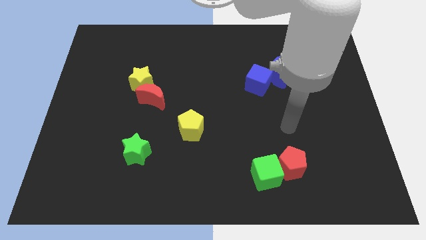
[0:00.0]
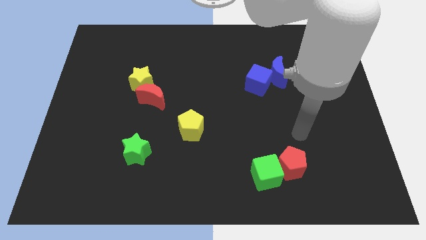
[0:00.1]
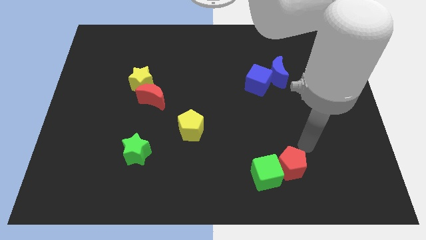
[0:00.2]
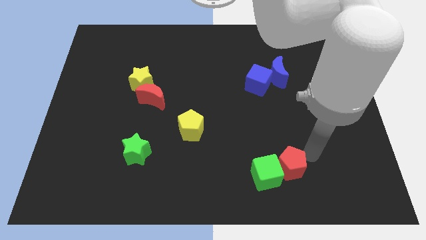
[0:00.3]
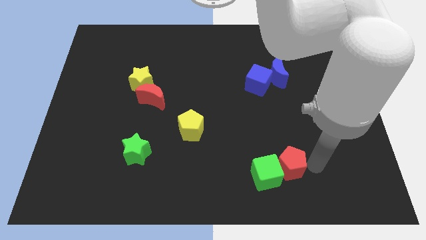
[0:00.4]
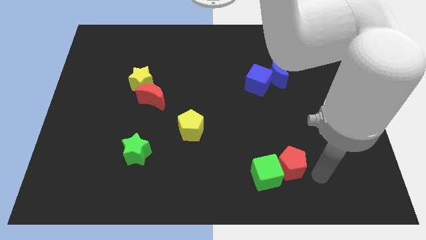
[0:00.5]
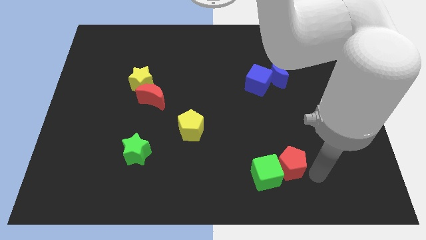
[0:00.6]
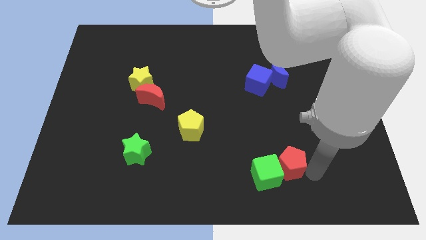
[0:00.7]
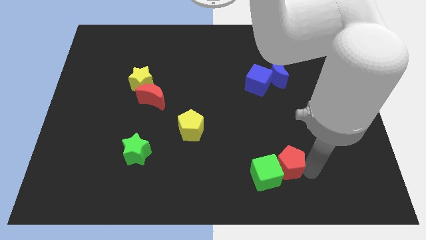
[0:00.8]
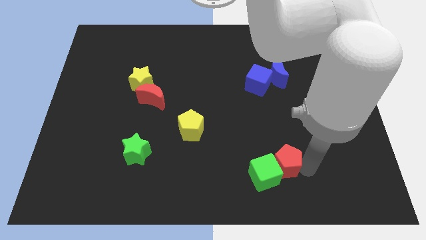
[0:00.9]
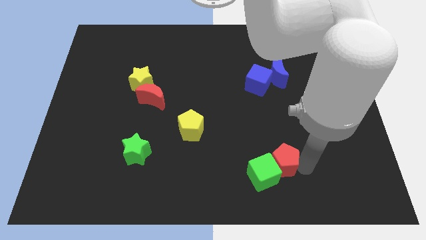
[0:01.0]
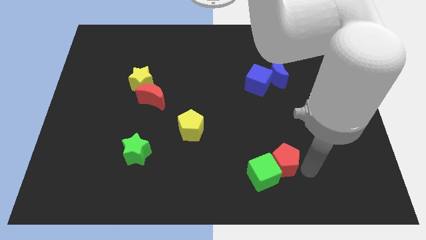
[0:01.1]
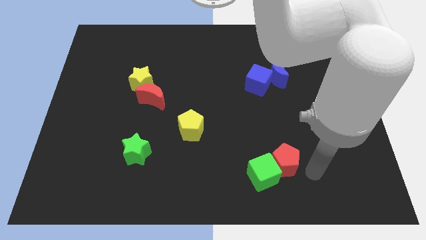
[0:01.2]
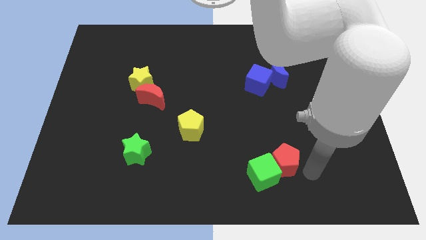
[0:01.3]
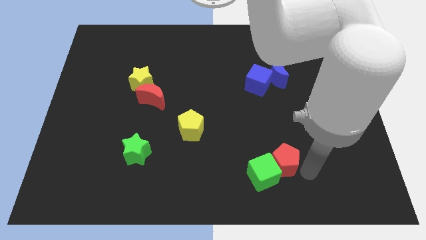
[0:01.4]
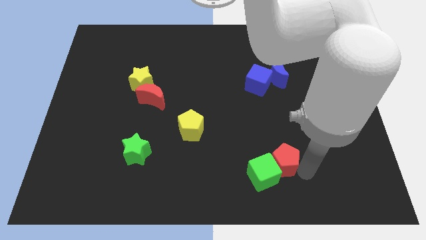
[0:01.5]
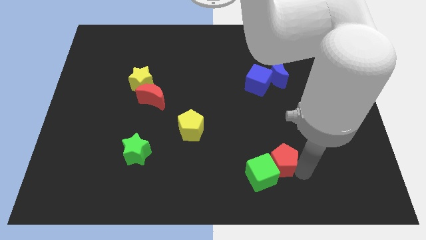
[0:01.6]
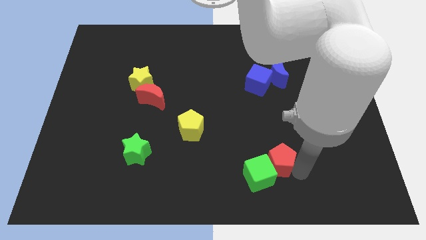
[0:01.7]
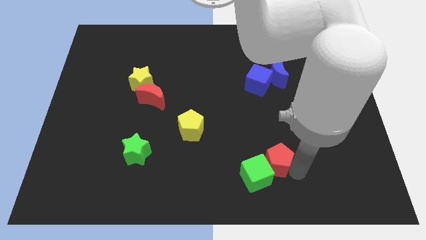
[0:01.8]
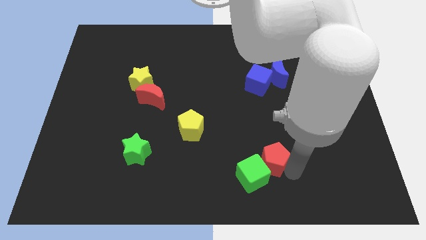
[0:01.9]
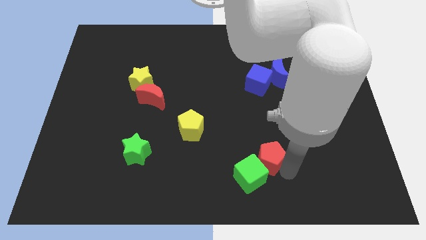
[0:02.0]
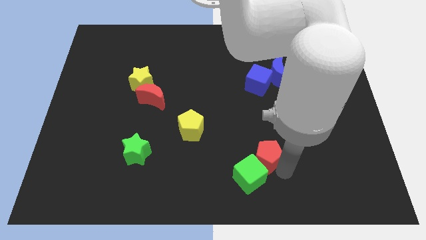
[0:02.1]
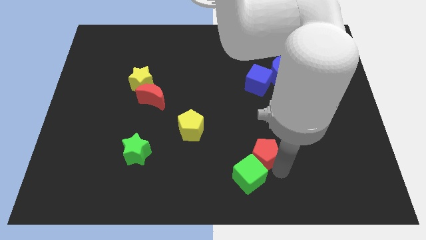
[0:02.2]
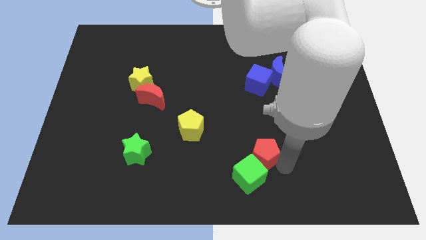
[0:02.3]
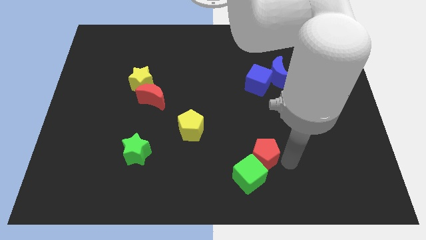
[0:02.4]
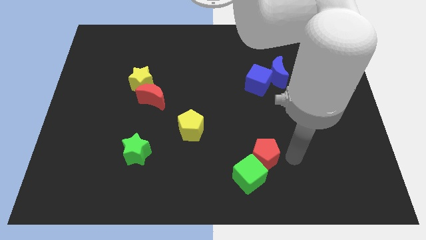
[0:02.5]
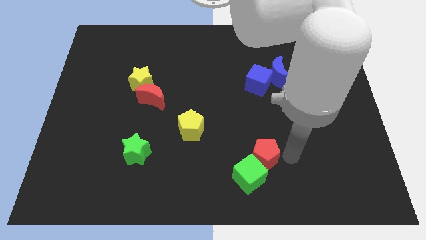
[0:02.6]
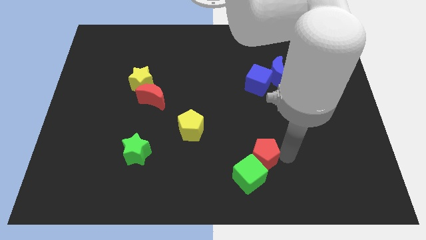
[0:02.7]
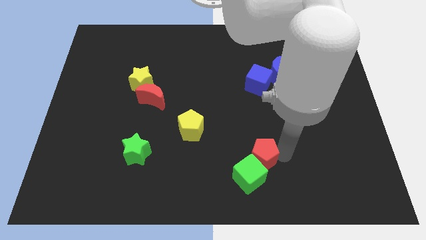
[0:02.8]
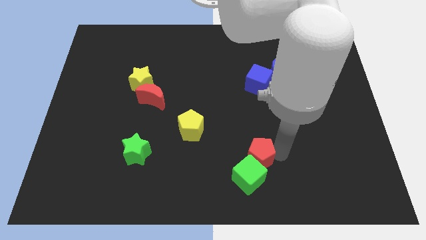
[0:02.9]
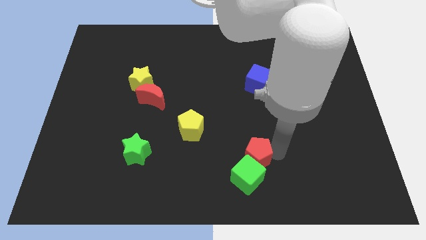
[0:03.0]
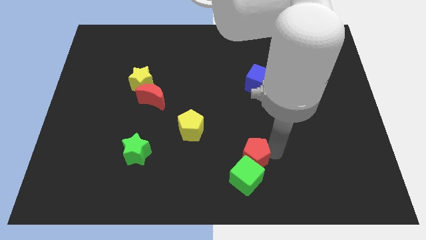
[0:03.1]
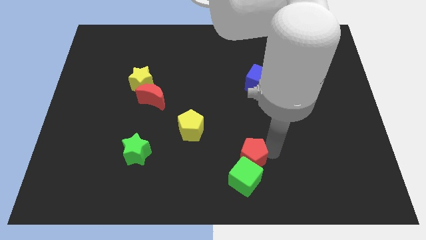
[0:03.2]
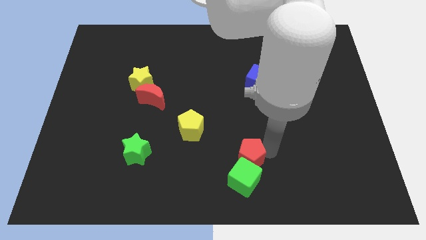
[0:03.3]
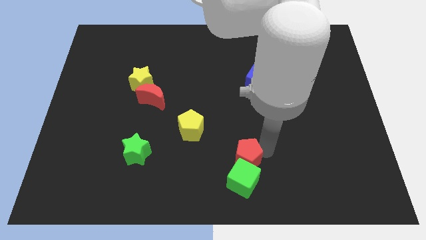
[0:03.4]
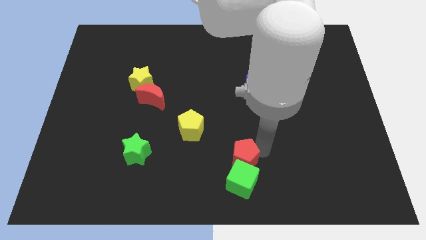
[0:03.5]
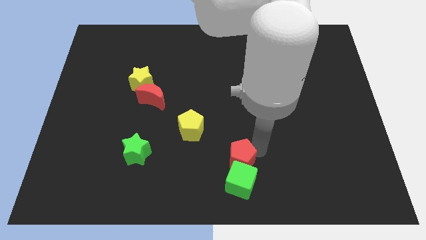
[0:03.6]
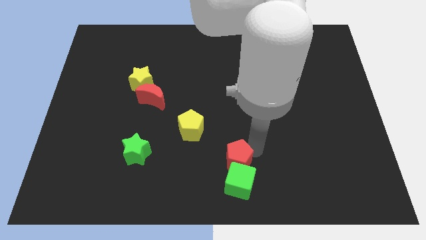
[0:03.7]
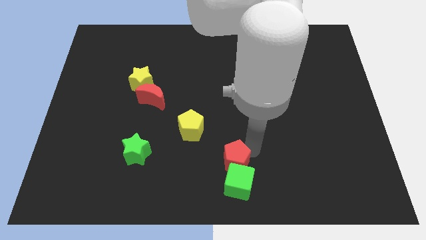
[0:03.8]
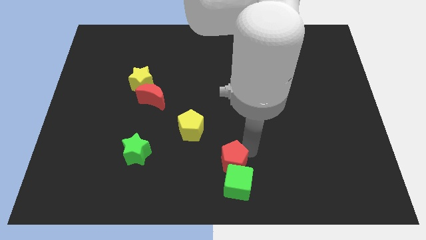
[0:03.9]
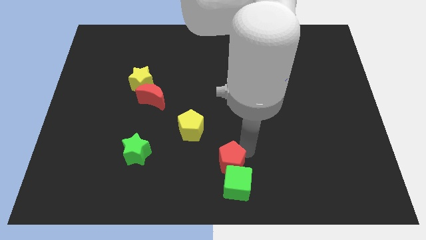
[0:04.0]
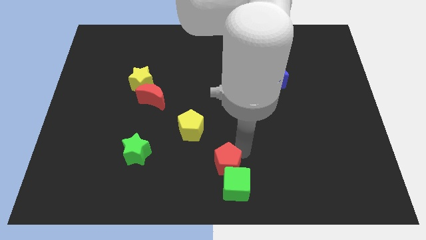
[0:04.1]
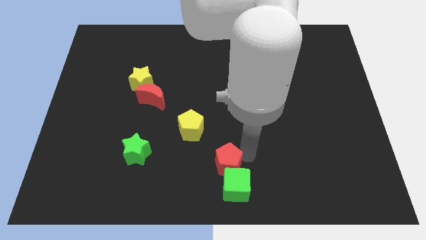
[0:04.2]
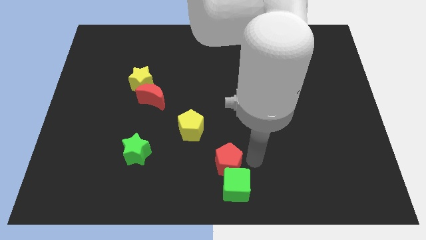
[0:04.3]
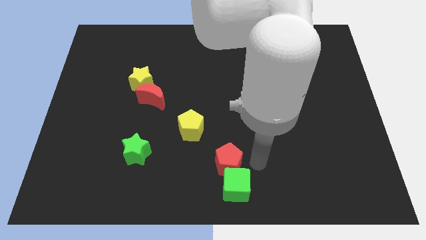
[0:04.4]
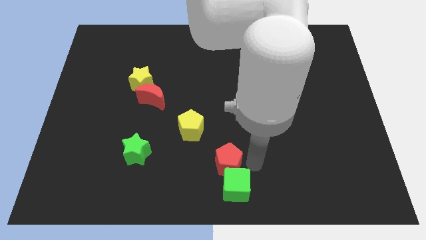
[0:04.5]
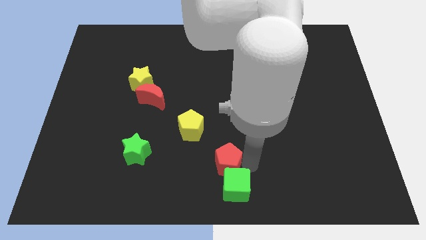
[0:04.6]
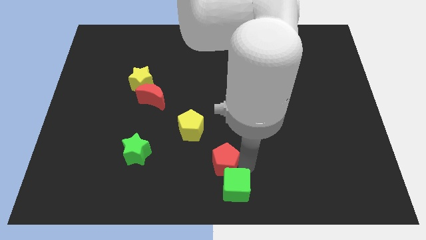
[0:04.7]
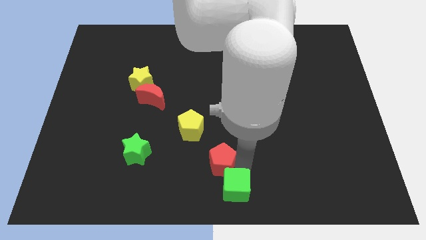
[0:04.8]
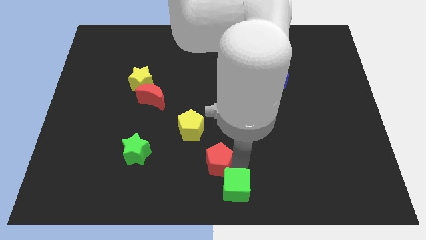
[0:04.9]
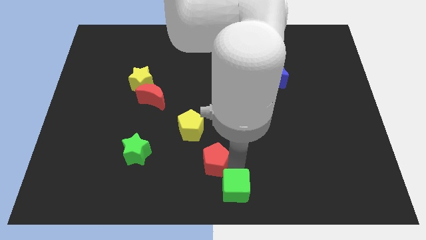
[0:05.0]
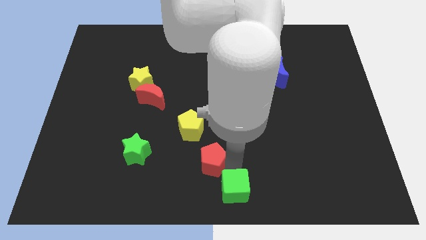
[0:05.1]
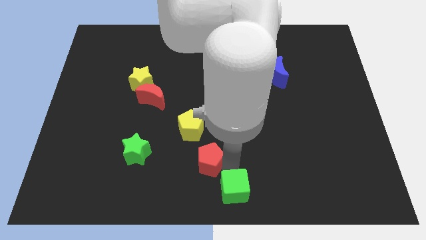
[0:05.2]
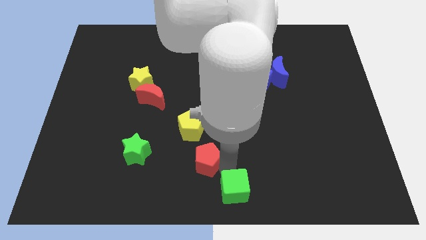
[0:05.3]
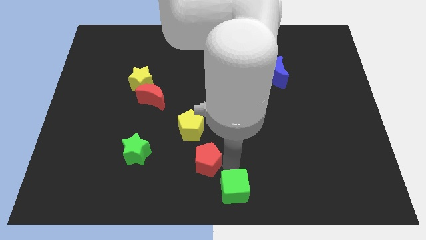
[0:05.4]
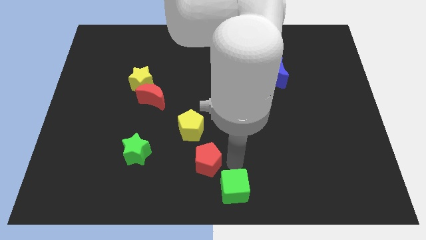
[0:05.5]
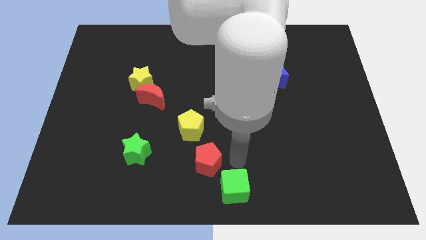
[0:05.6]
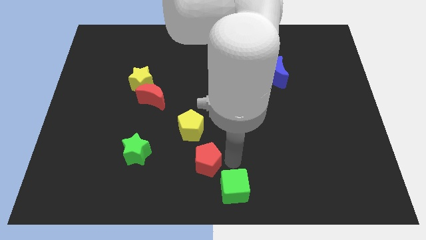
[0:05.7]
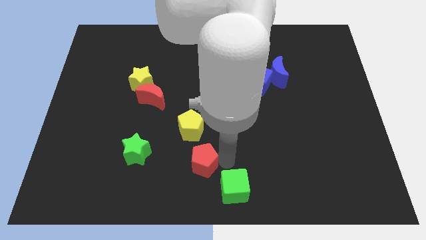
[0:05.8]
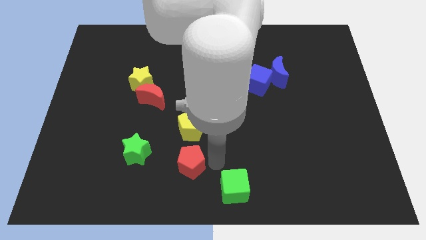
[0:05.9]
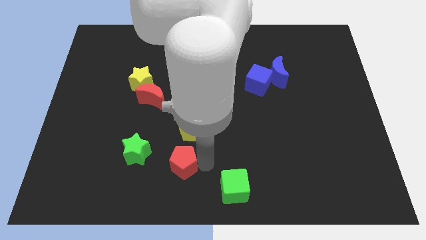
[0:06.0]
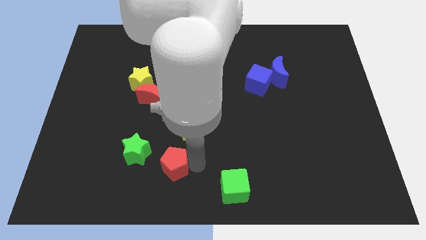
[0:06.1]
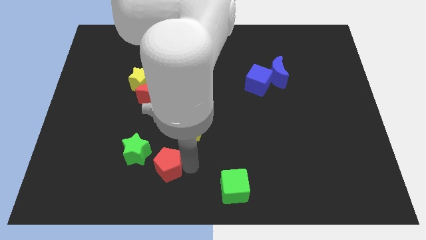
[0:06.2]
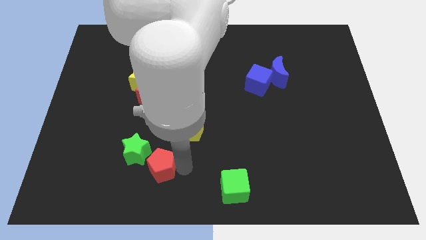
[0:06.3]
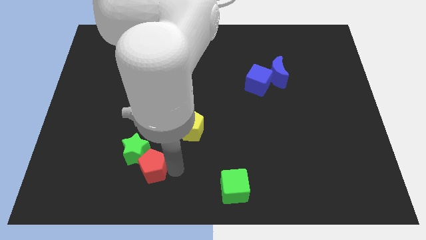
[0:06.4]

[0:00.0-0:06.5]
slide the red pentagon close to the green star

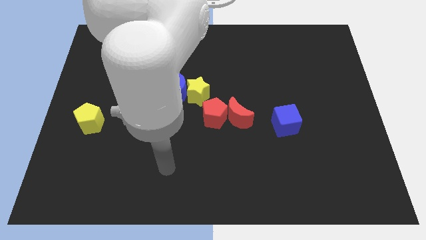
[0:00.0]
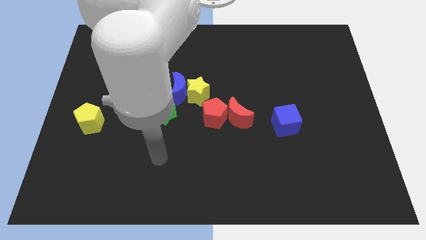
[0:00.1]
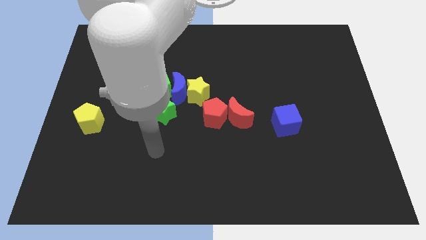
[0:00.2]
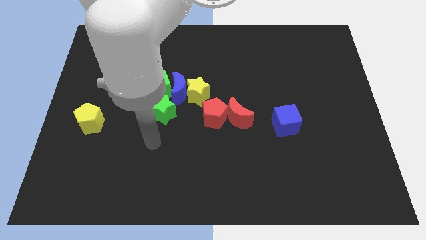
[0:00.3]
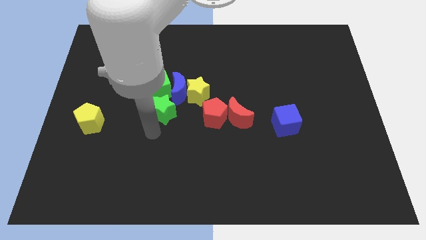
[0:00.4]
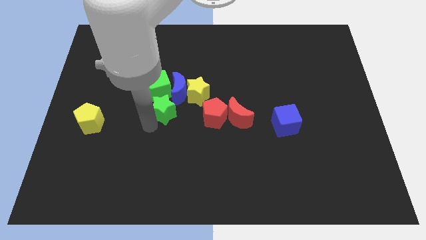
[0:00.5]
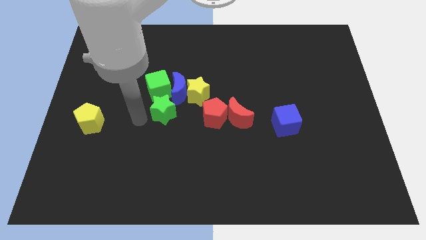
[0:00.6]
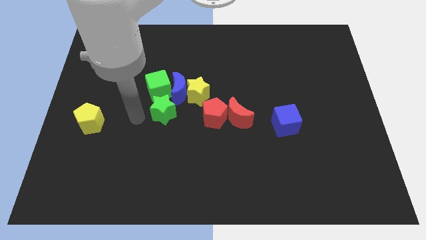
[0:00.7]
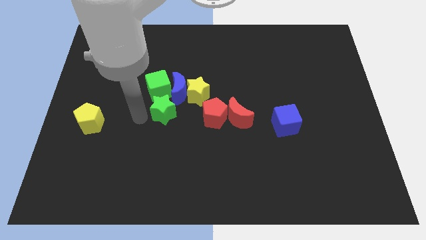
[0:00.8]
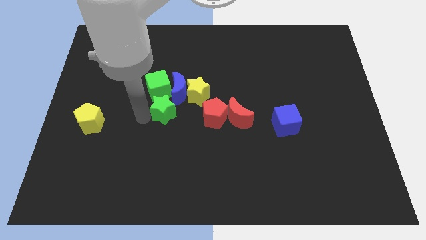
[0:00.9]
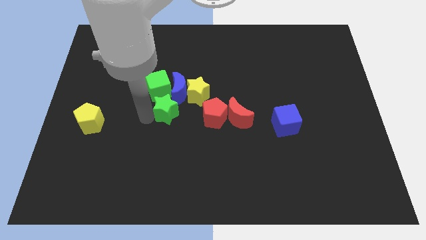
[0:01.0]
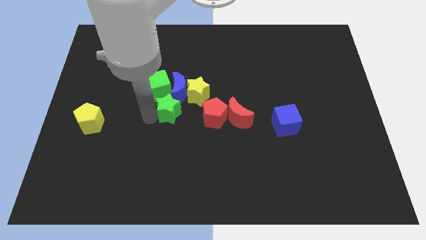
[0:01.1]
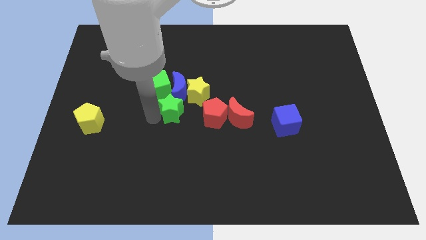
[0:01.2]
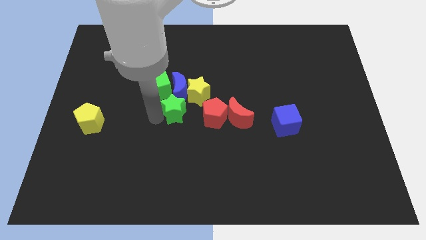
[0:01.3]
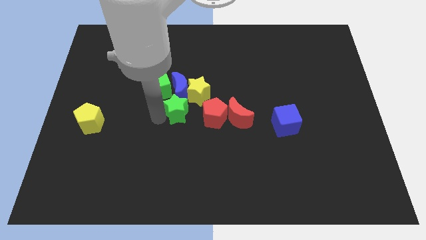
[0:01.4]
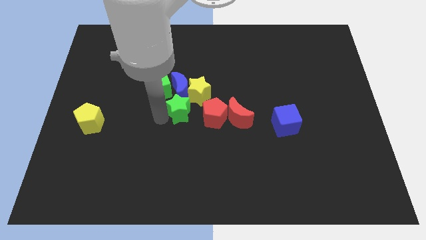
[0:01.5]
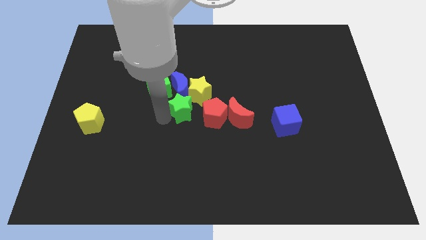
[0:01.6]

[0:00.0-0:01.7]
push the green star close to the yellow star
